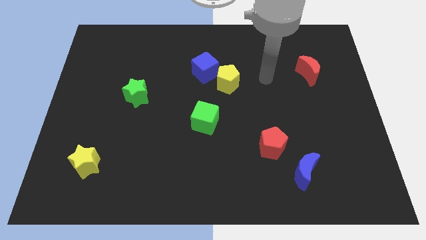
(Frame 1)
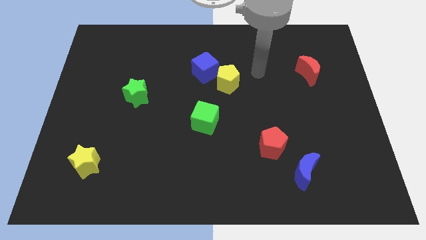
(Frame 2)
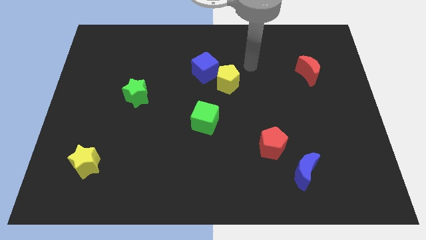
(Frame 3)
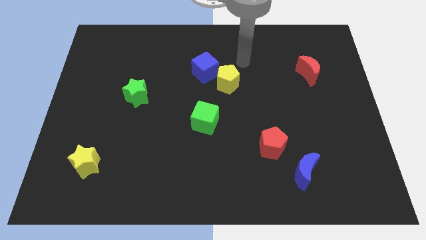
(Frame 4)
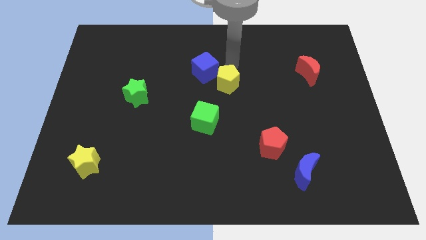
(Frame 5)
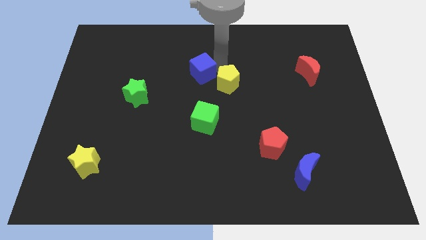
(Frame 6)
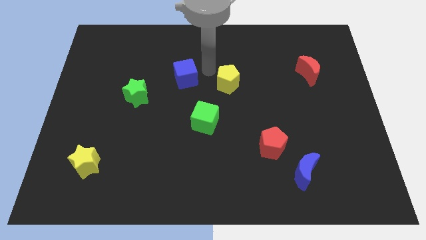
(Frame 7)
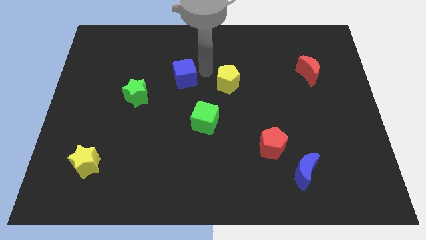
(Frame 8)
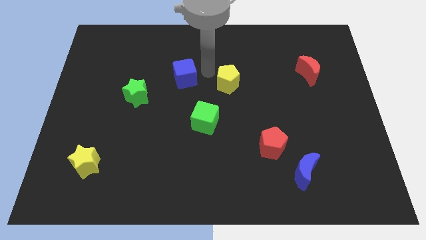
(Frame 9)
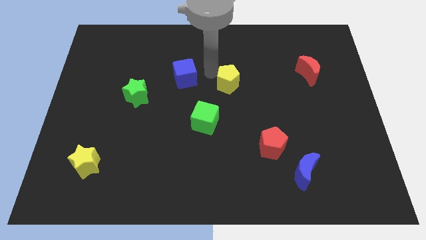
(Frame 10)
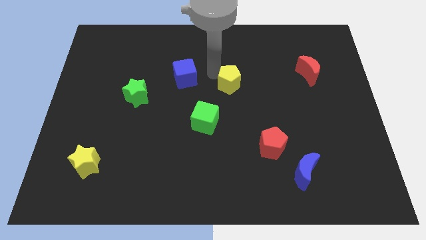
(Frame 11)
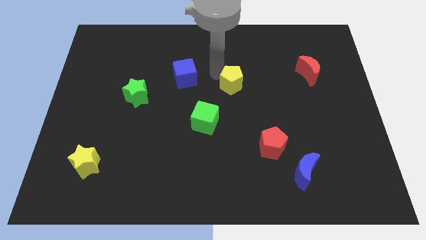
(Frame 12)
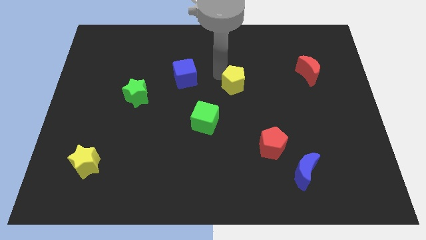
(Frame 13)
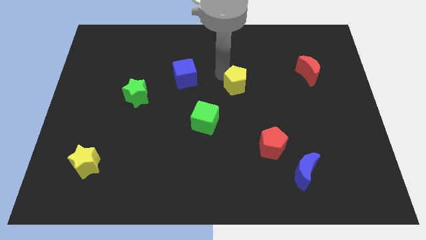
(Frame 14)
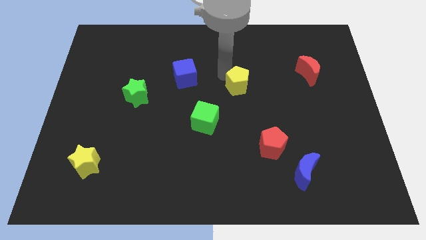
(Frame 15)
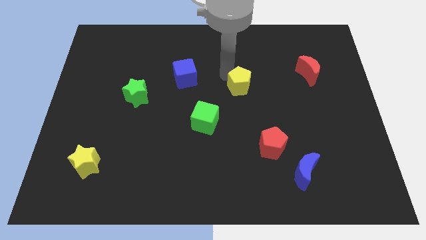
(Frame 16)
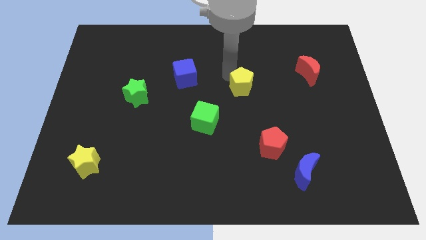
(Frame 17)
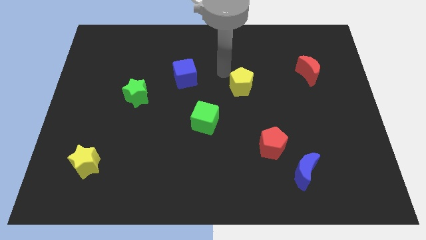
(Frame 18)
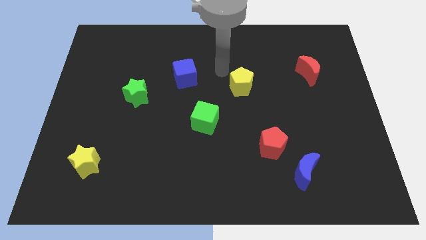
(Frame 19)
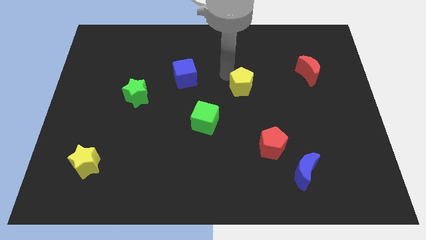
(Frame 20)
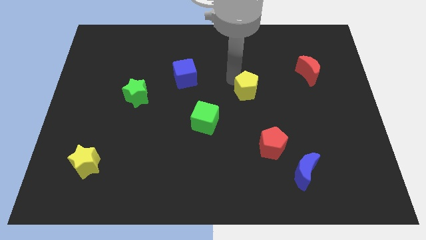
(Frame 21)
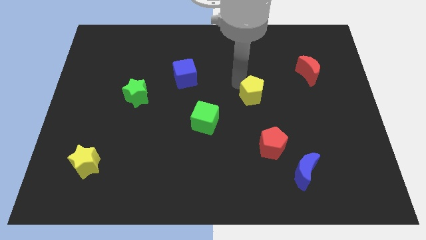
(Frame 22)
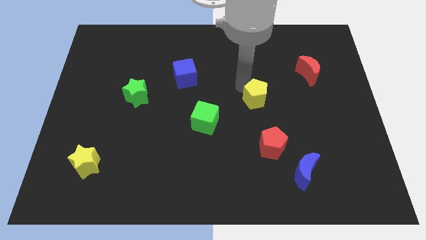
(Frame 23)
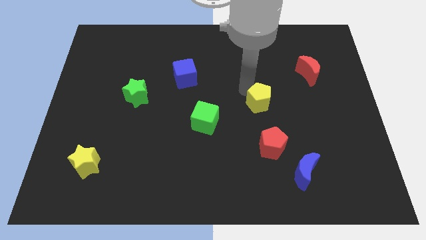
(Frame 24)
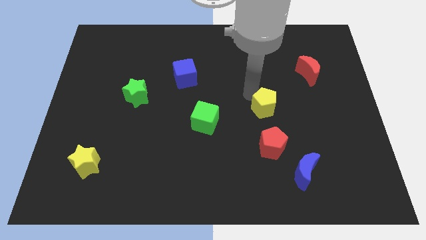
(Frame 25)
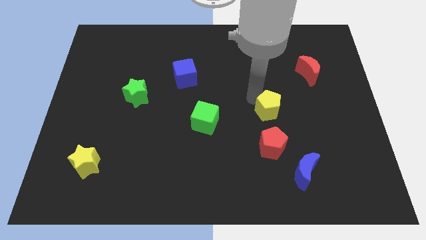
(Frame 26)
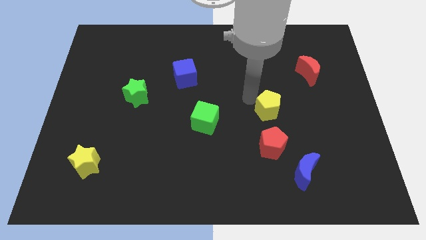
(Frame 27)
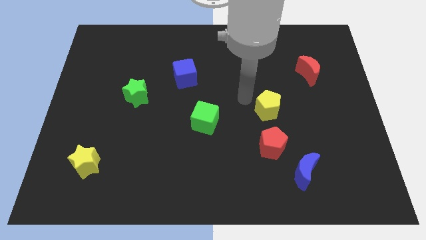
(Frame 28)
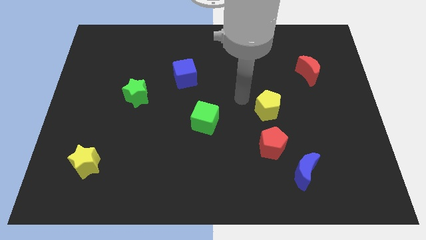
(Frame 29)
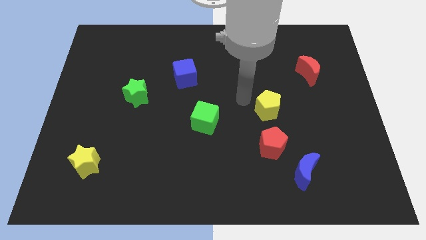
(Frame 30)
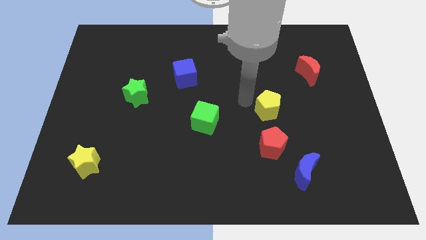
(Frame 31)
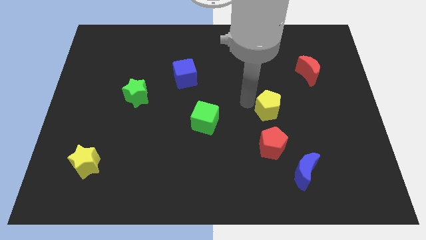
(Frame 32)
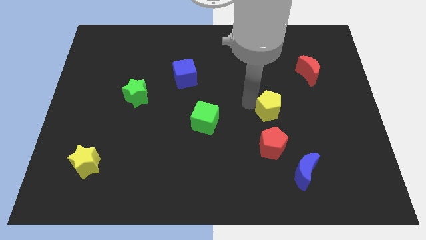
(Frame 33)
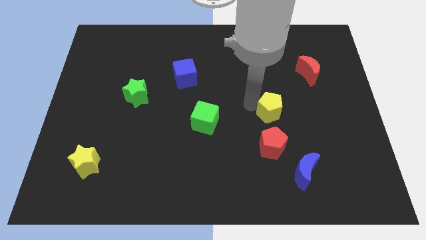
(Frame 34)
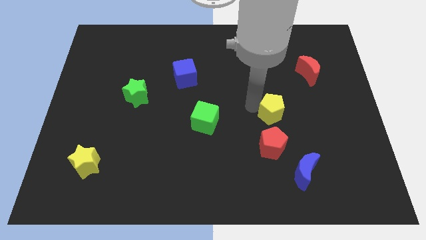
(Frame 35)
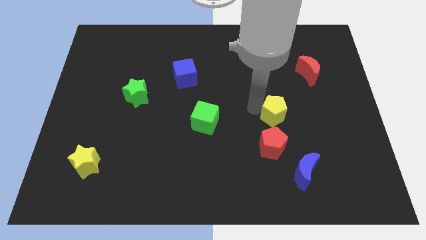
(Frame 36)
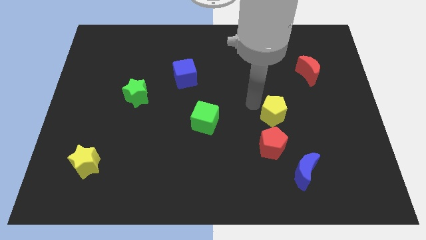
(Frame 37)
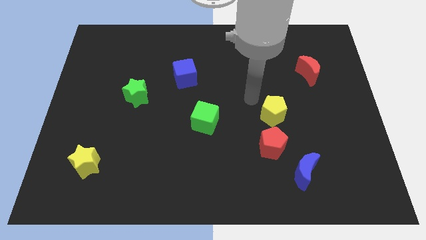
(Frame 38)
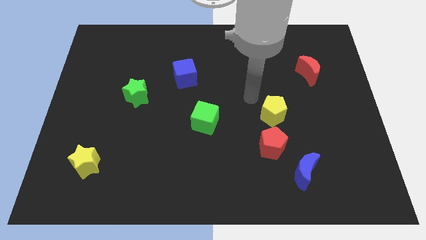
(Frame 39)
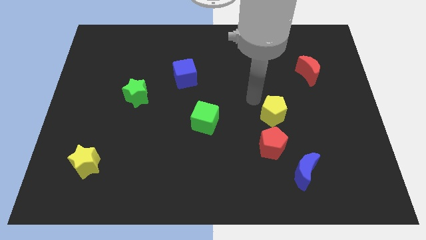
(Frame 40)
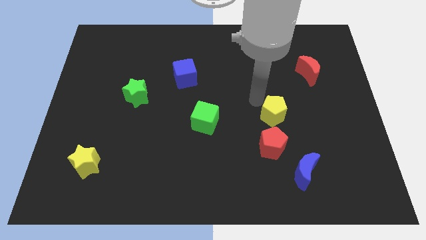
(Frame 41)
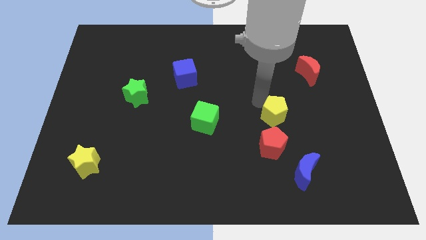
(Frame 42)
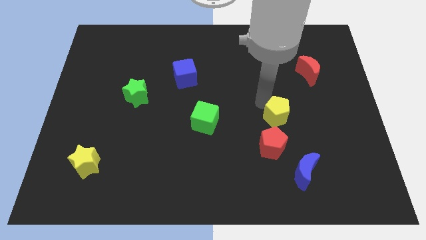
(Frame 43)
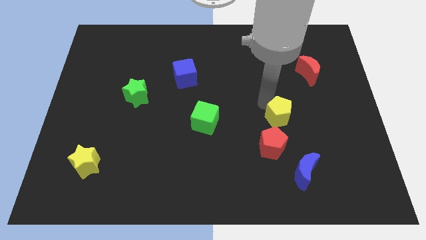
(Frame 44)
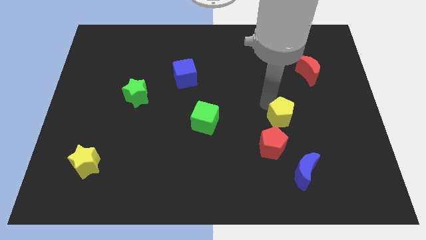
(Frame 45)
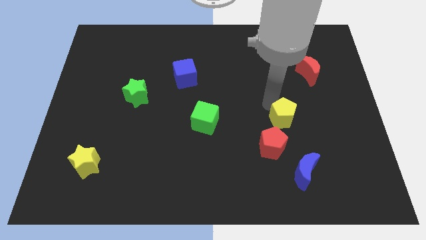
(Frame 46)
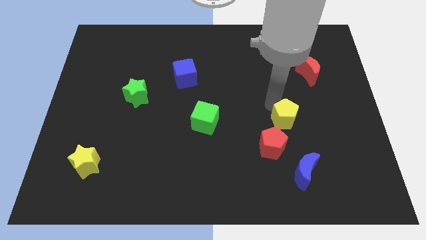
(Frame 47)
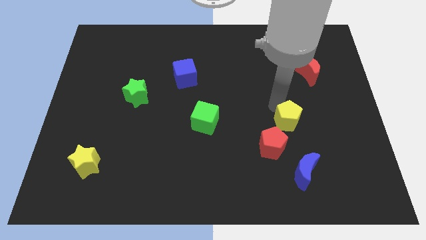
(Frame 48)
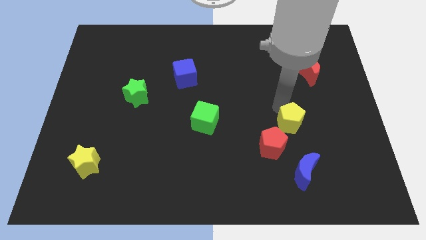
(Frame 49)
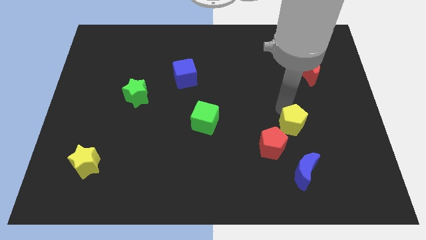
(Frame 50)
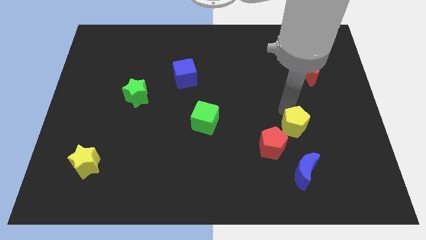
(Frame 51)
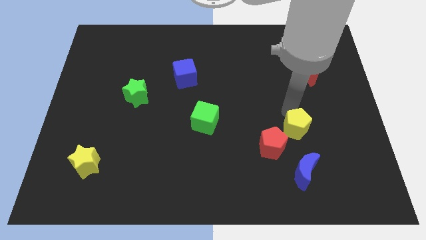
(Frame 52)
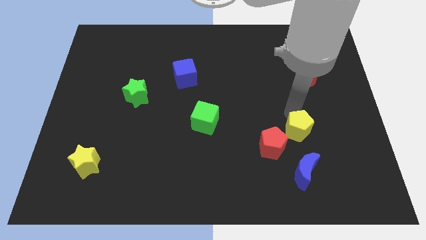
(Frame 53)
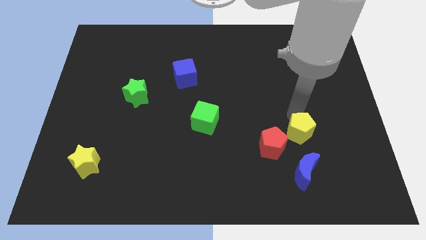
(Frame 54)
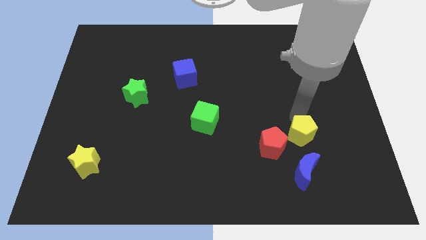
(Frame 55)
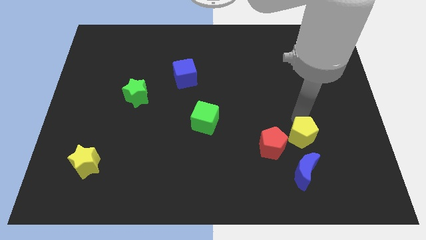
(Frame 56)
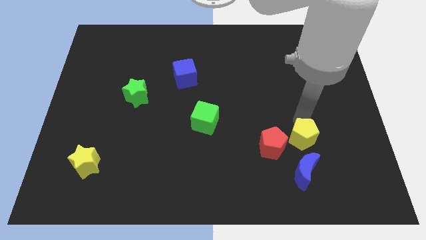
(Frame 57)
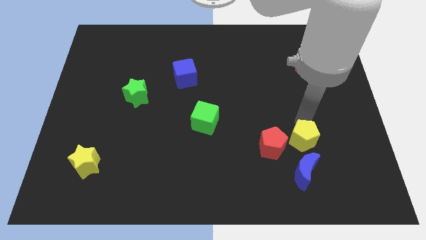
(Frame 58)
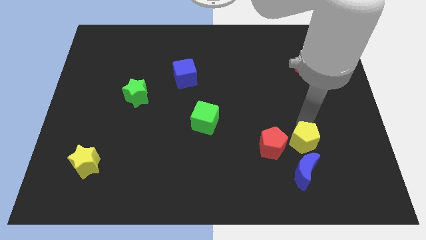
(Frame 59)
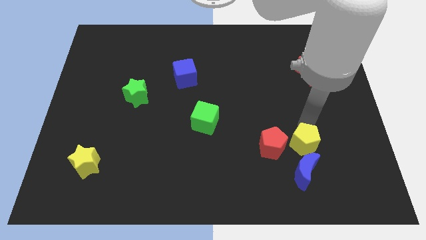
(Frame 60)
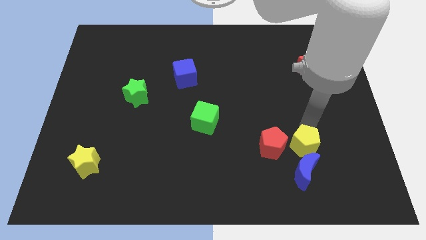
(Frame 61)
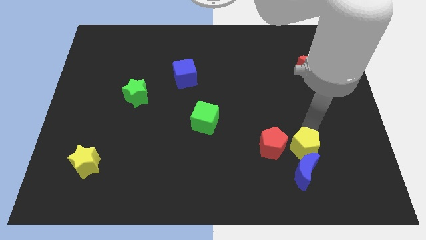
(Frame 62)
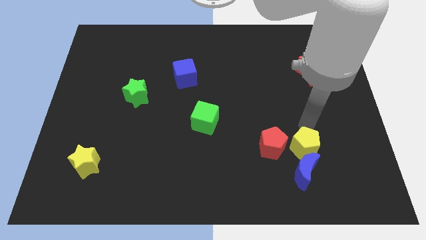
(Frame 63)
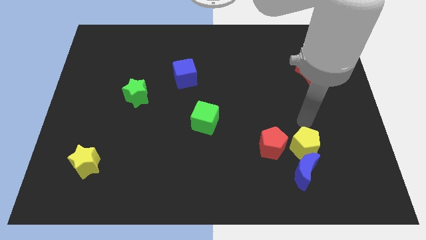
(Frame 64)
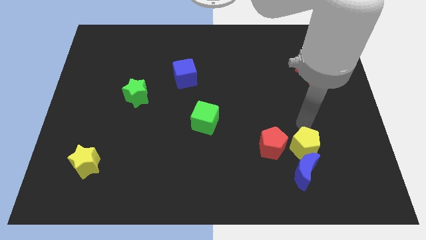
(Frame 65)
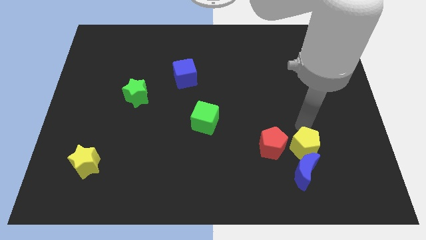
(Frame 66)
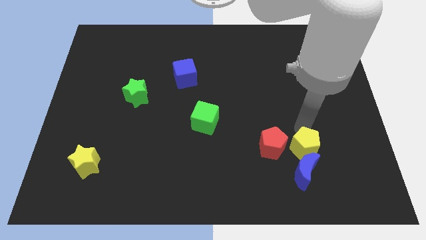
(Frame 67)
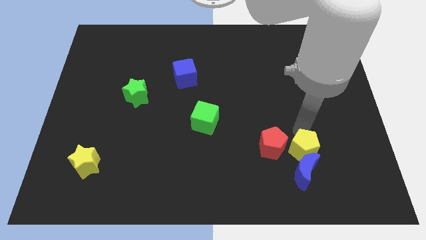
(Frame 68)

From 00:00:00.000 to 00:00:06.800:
push the yellow pentagon close to the blue moon
